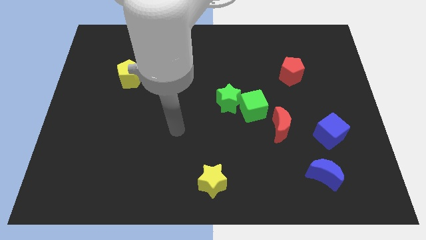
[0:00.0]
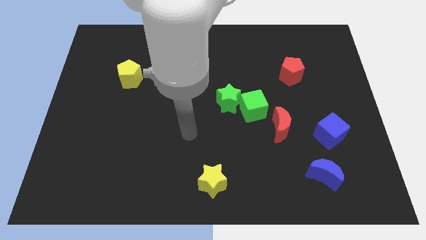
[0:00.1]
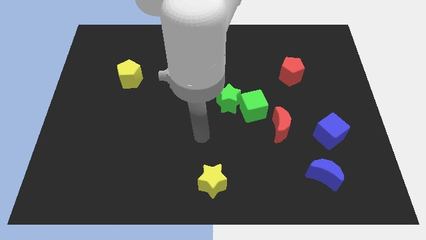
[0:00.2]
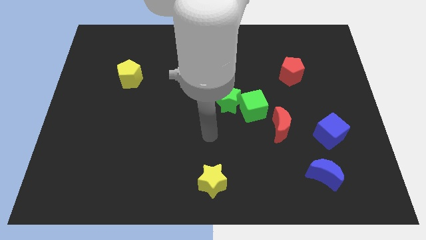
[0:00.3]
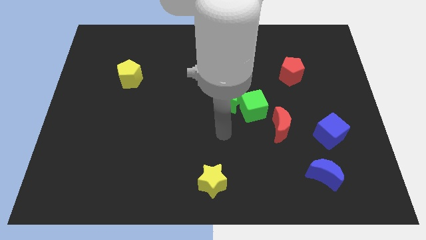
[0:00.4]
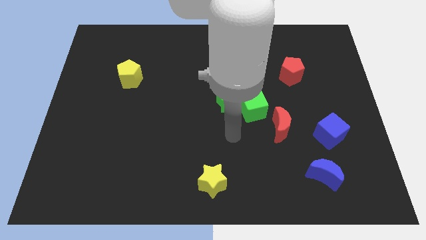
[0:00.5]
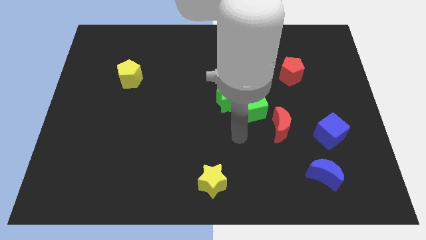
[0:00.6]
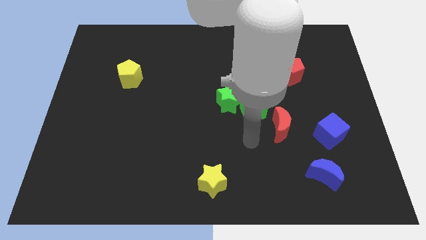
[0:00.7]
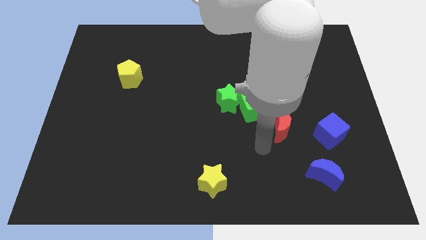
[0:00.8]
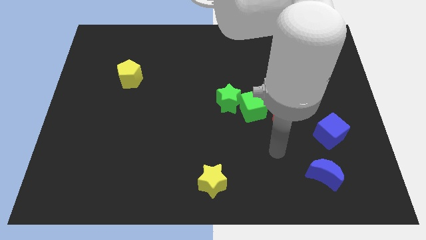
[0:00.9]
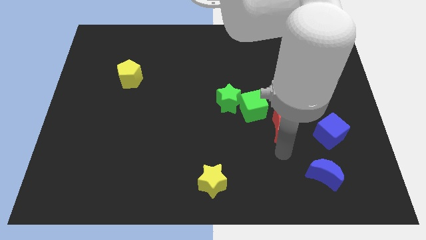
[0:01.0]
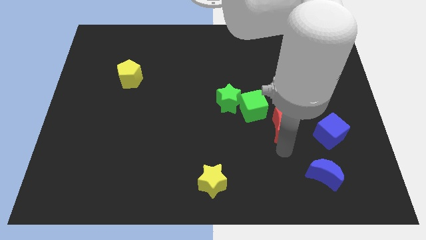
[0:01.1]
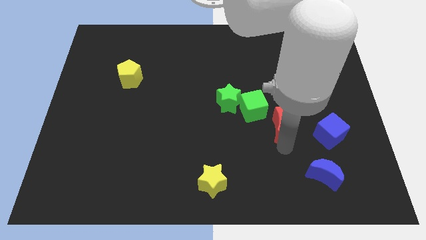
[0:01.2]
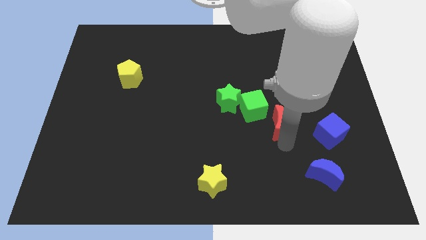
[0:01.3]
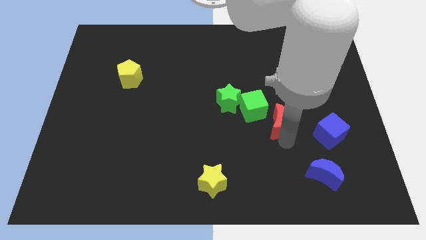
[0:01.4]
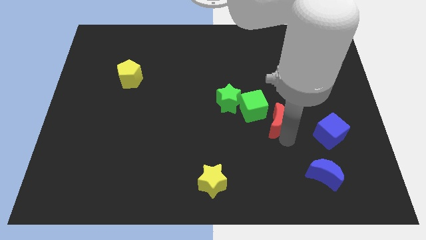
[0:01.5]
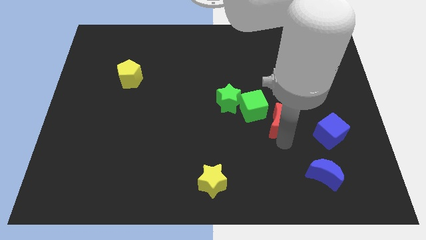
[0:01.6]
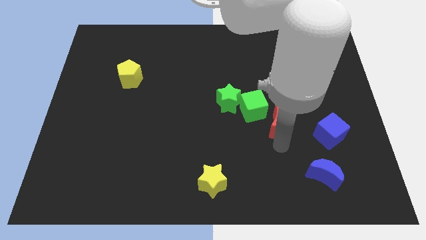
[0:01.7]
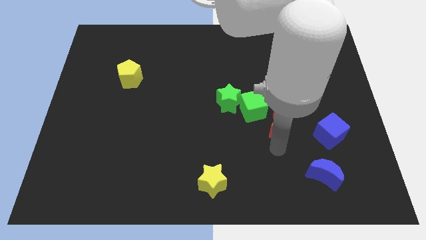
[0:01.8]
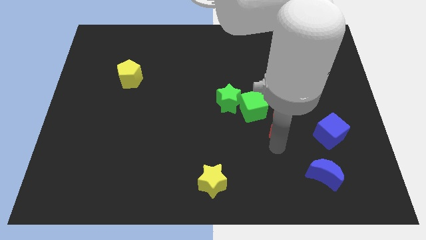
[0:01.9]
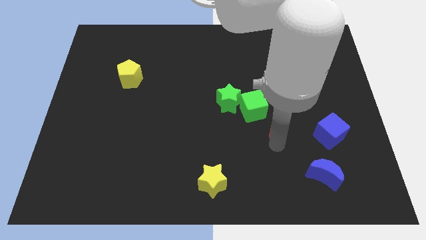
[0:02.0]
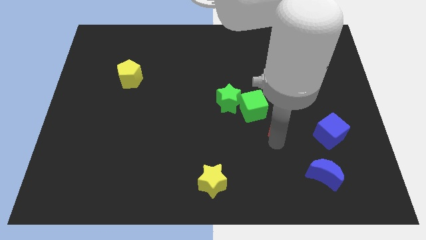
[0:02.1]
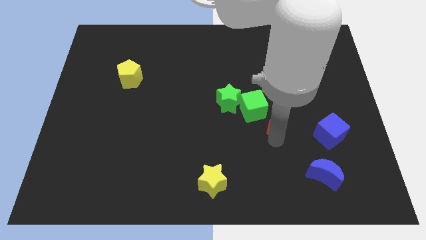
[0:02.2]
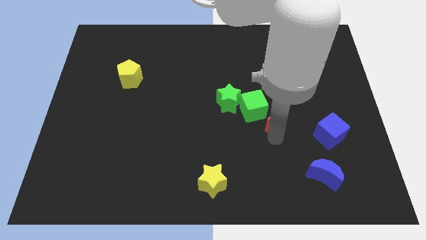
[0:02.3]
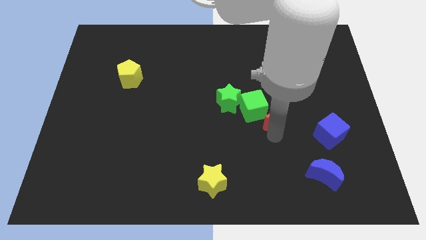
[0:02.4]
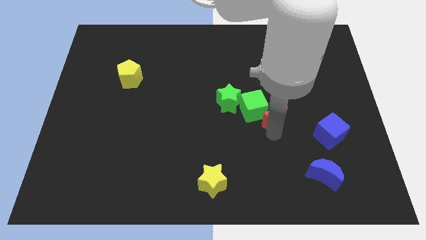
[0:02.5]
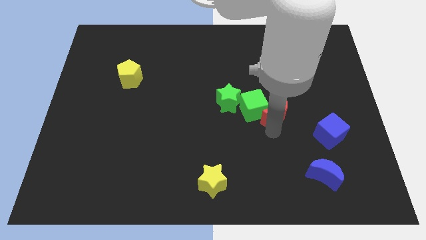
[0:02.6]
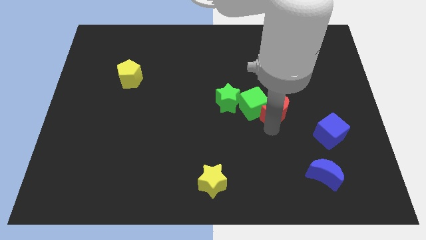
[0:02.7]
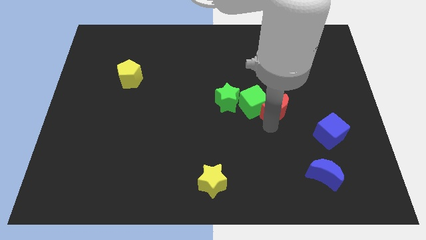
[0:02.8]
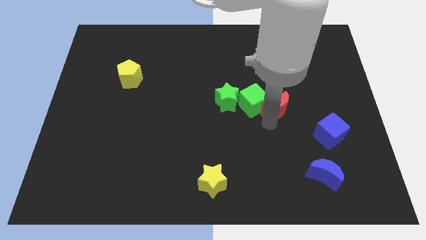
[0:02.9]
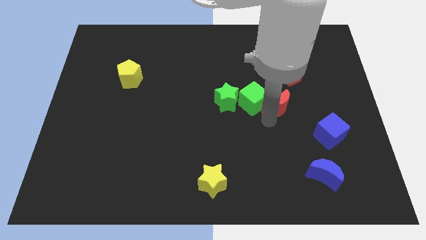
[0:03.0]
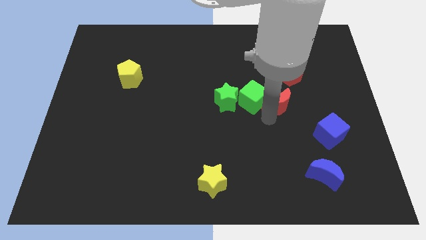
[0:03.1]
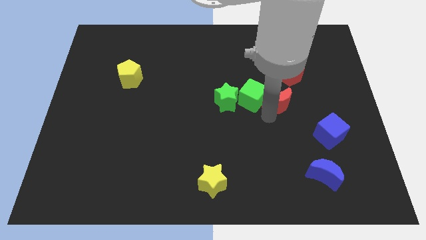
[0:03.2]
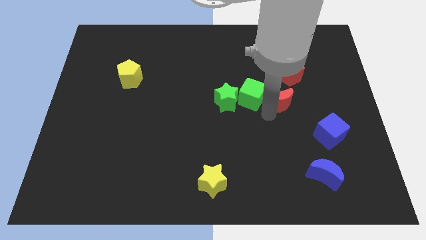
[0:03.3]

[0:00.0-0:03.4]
move the red moon up somewhat

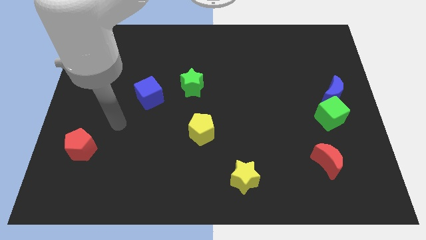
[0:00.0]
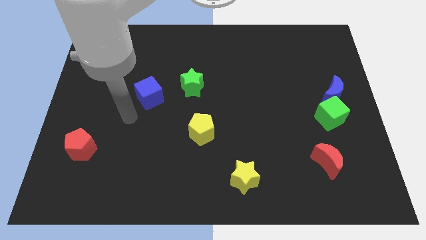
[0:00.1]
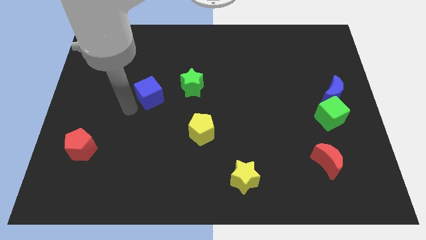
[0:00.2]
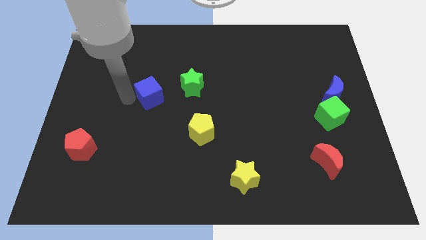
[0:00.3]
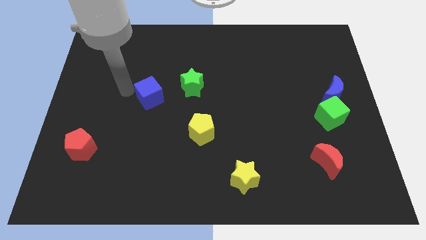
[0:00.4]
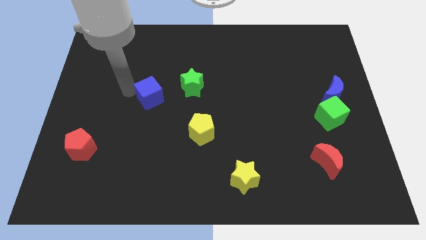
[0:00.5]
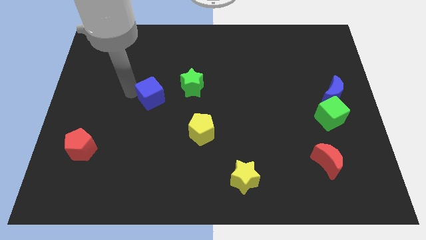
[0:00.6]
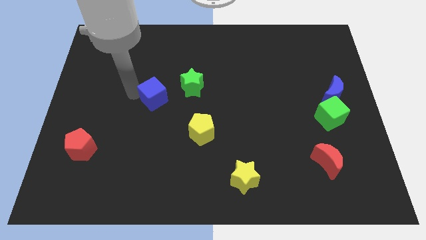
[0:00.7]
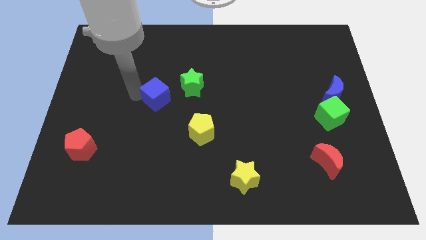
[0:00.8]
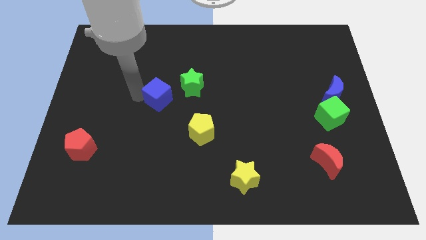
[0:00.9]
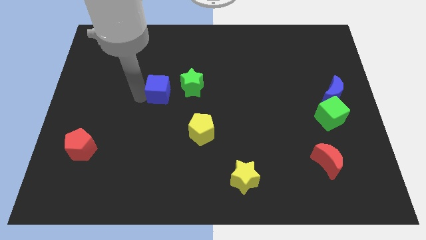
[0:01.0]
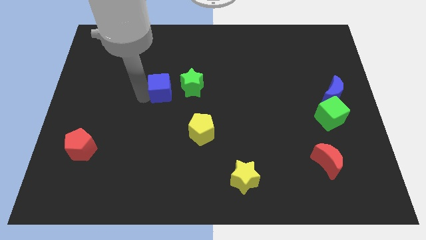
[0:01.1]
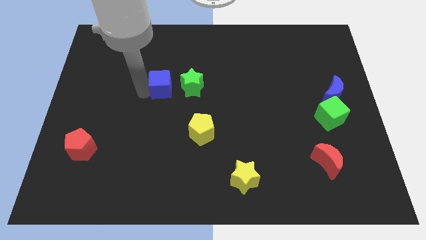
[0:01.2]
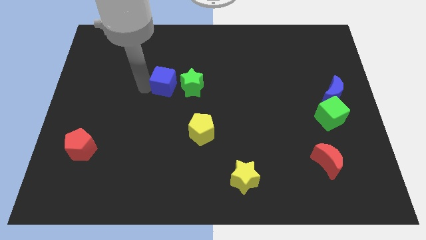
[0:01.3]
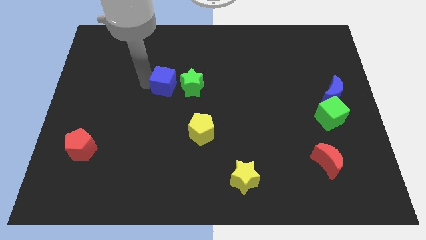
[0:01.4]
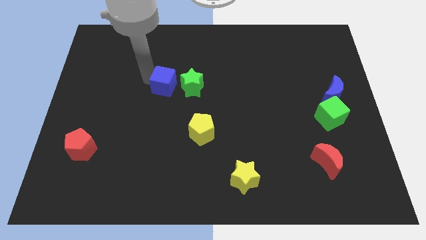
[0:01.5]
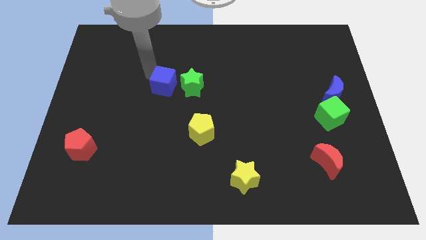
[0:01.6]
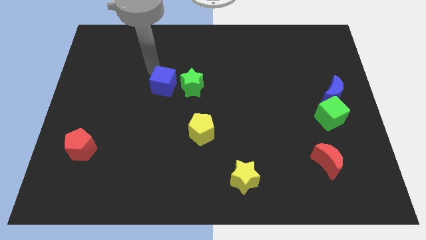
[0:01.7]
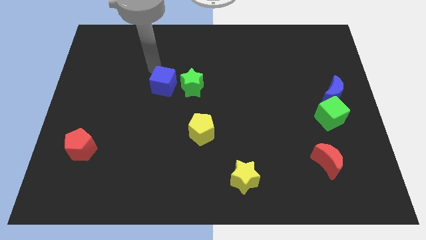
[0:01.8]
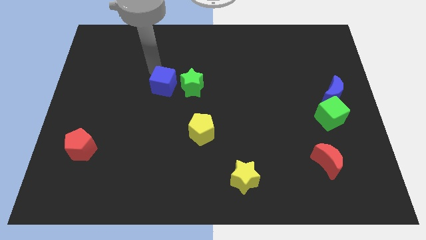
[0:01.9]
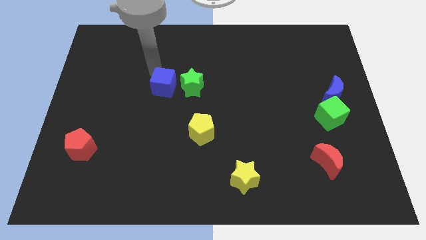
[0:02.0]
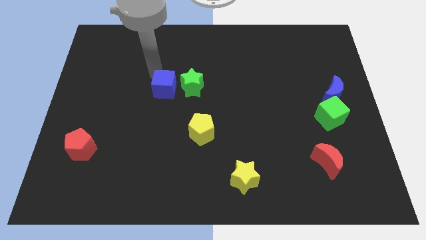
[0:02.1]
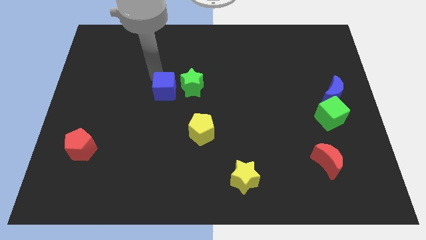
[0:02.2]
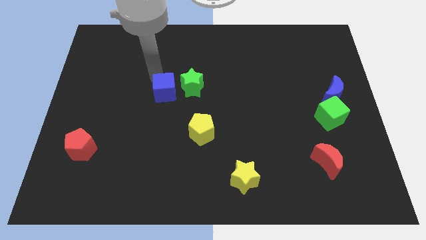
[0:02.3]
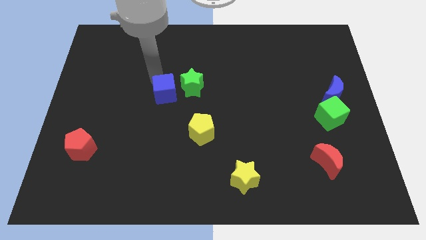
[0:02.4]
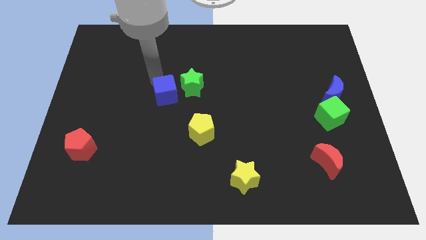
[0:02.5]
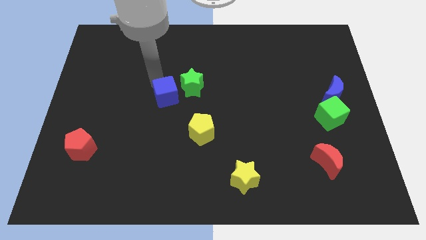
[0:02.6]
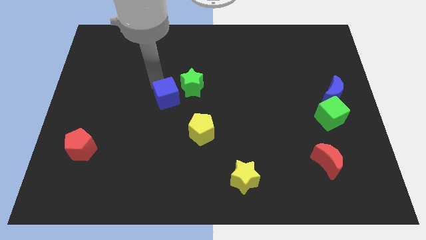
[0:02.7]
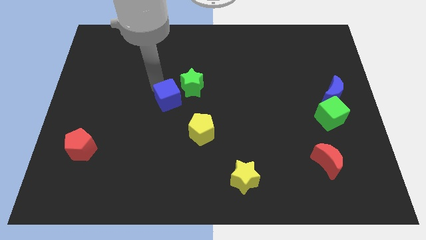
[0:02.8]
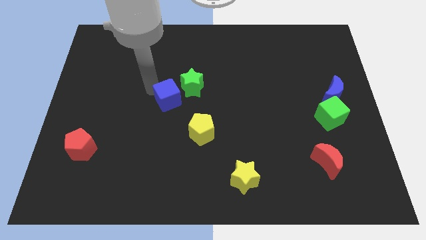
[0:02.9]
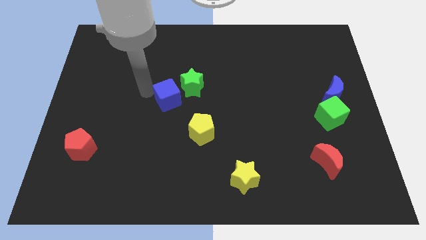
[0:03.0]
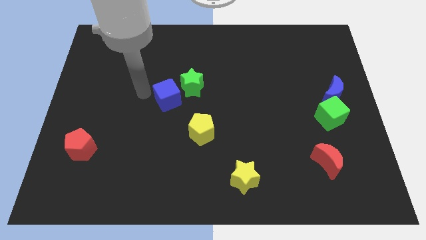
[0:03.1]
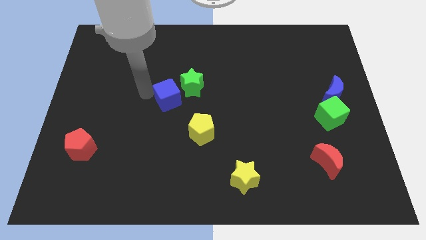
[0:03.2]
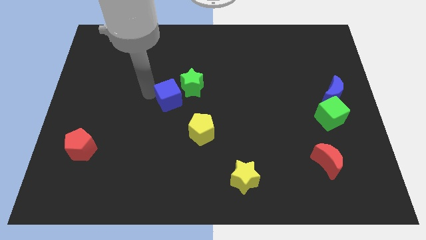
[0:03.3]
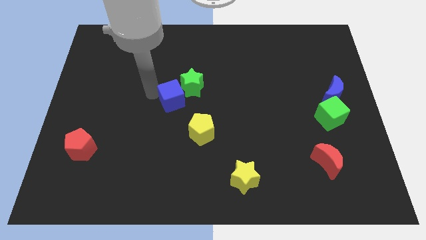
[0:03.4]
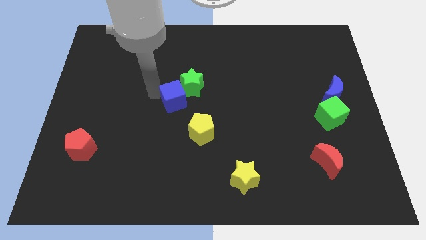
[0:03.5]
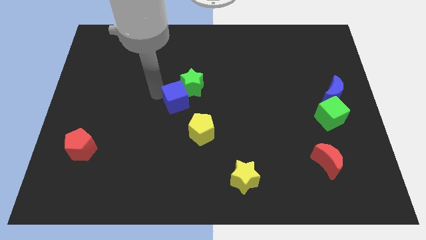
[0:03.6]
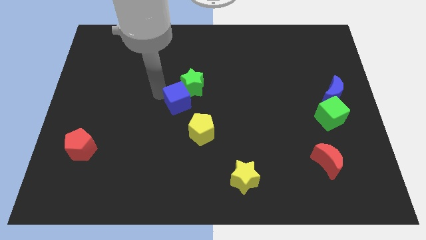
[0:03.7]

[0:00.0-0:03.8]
slightly push the blue cube right

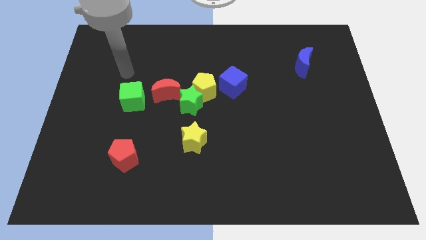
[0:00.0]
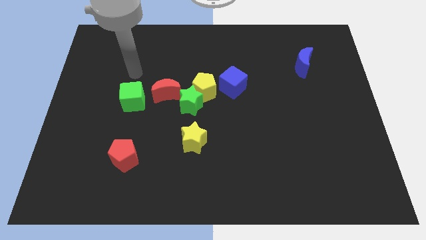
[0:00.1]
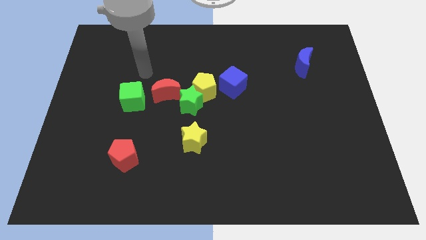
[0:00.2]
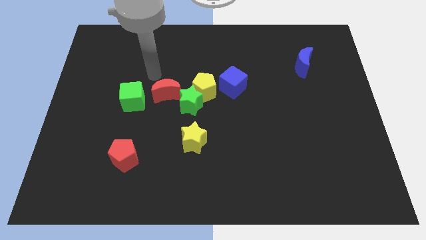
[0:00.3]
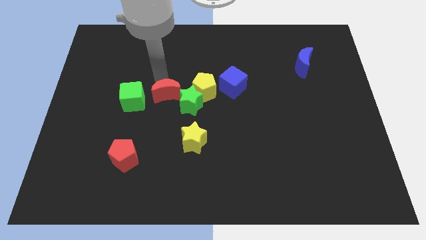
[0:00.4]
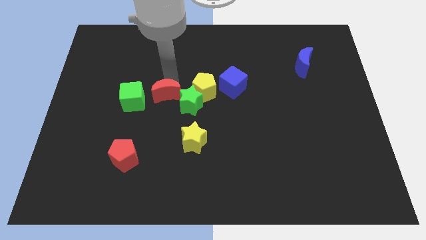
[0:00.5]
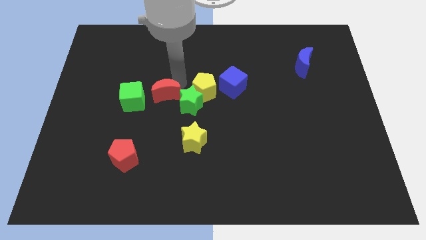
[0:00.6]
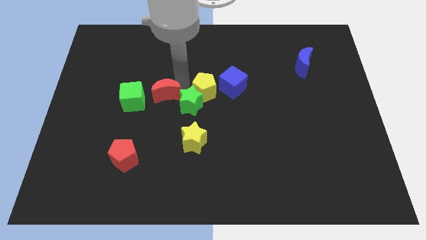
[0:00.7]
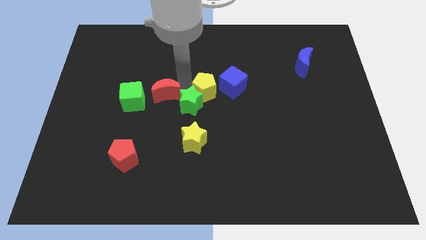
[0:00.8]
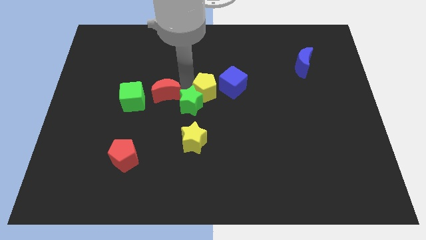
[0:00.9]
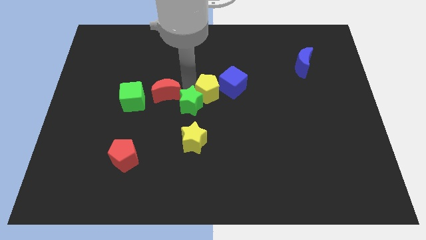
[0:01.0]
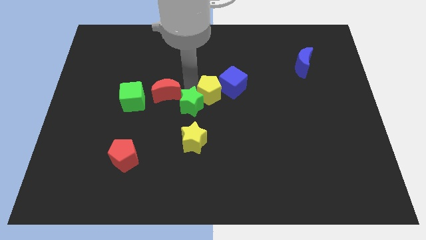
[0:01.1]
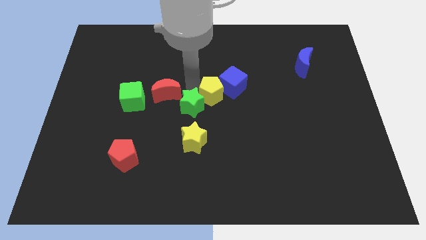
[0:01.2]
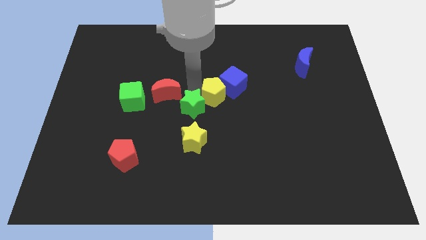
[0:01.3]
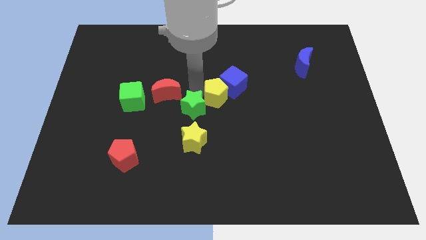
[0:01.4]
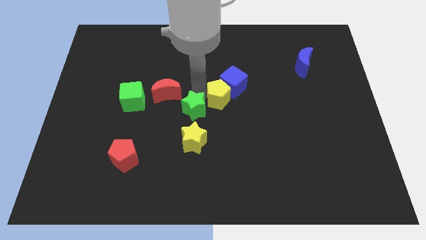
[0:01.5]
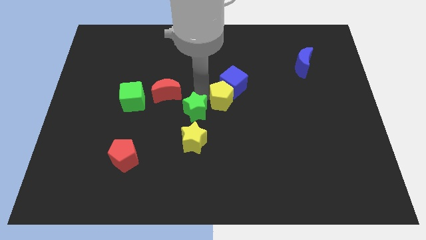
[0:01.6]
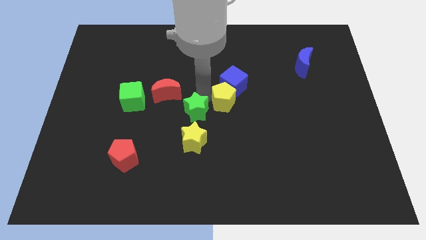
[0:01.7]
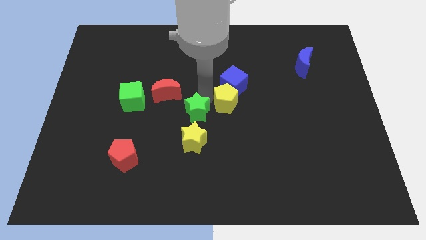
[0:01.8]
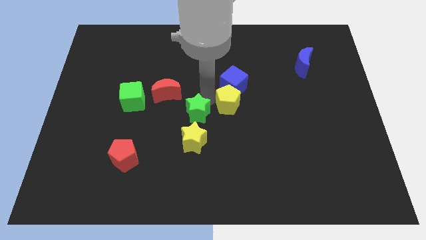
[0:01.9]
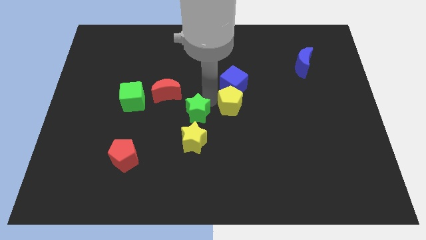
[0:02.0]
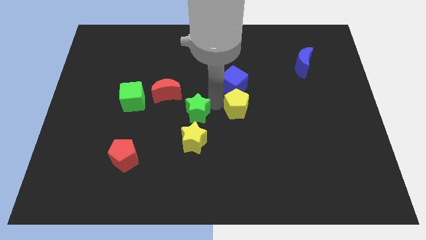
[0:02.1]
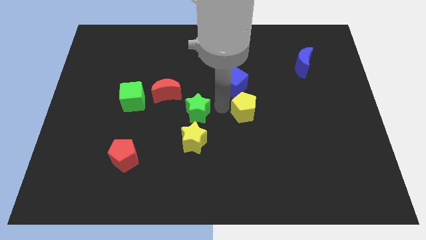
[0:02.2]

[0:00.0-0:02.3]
slide the yellow pentagon a little to the right
